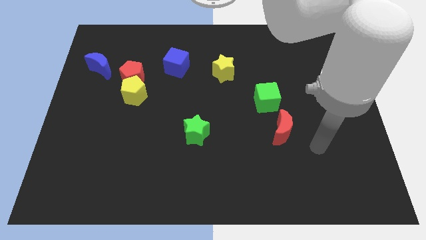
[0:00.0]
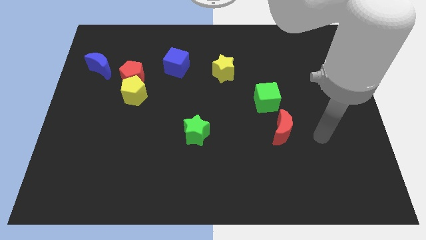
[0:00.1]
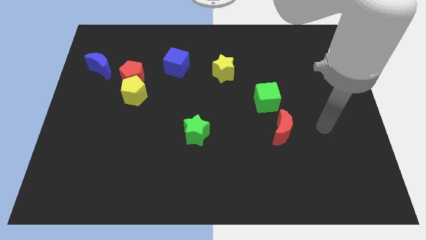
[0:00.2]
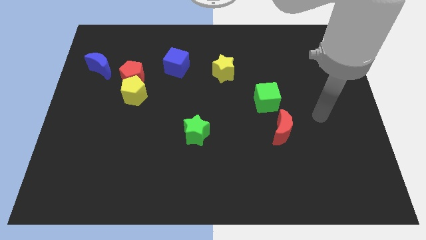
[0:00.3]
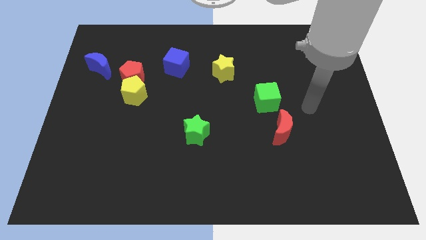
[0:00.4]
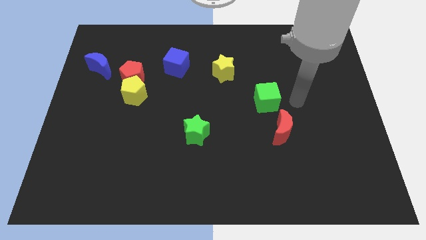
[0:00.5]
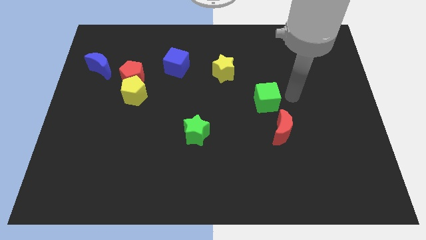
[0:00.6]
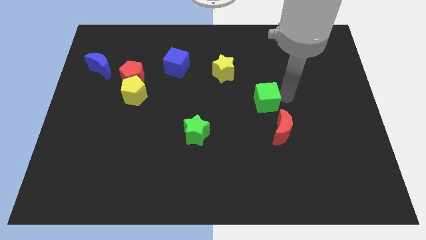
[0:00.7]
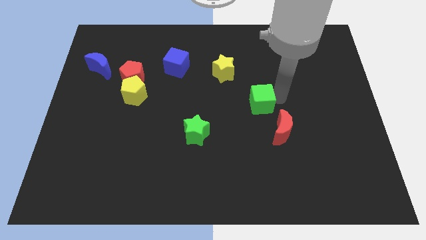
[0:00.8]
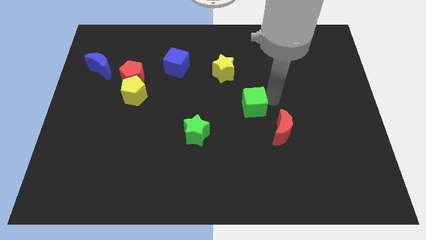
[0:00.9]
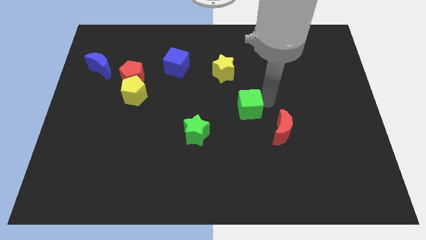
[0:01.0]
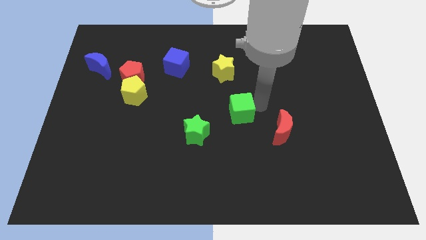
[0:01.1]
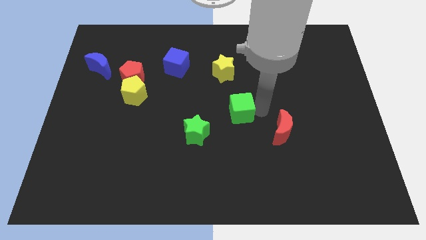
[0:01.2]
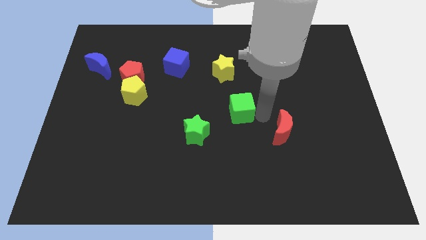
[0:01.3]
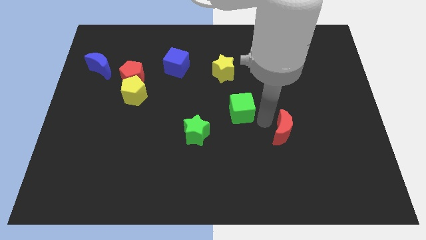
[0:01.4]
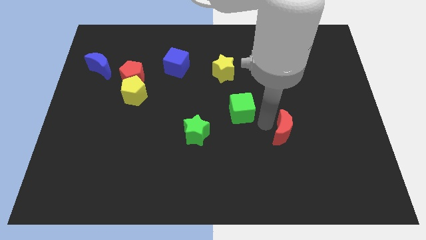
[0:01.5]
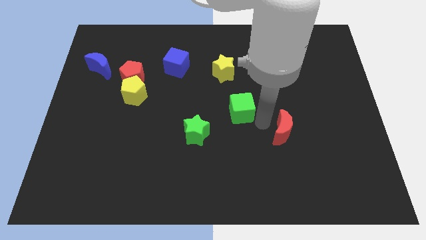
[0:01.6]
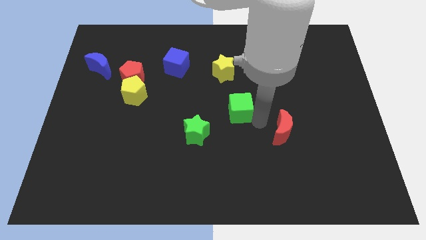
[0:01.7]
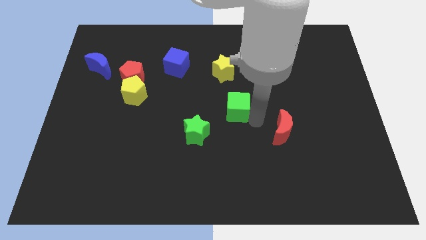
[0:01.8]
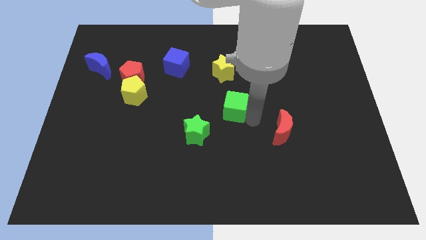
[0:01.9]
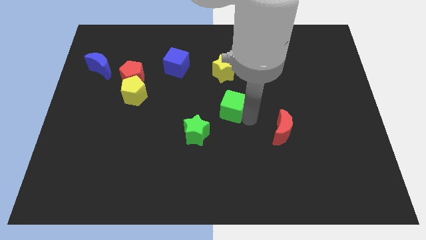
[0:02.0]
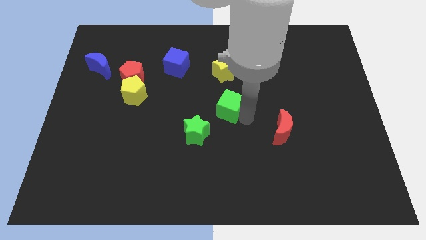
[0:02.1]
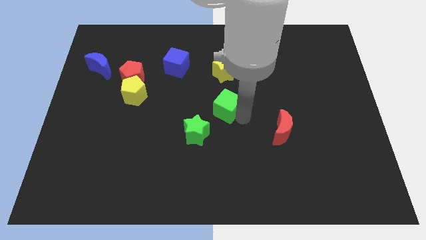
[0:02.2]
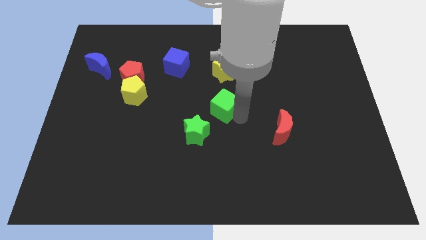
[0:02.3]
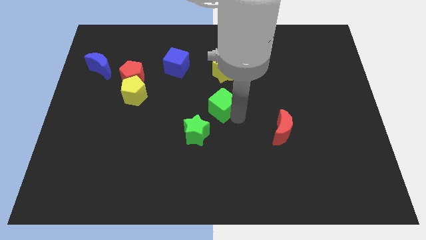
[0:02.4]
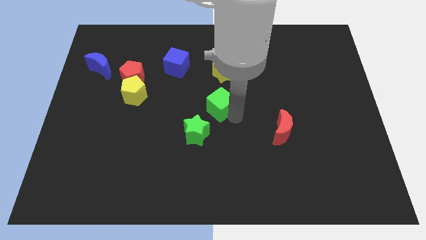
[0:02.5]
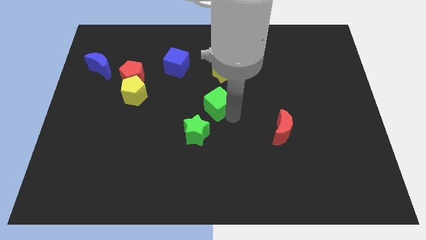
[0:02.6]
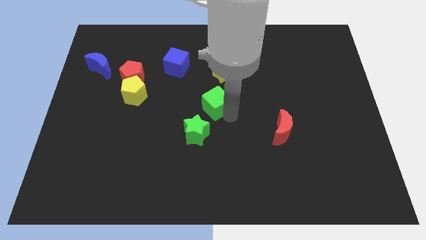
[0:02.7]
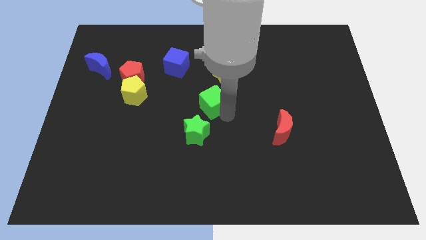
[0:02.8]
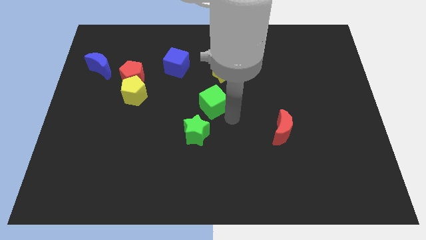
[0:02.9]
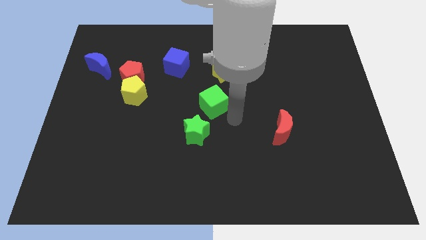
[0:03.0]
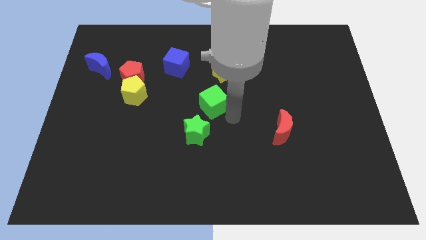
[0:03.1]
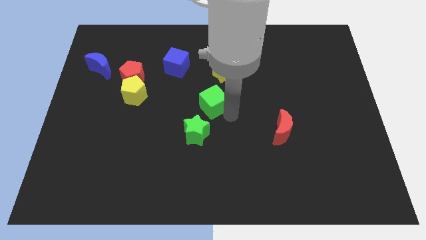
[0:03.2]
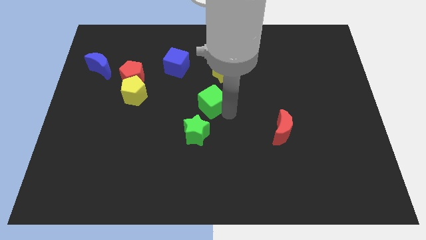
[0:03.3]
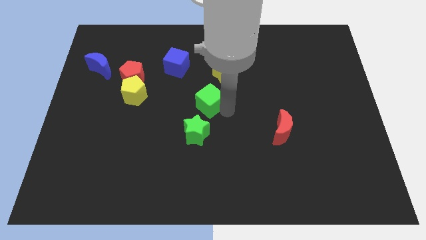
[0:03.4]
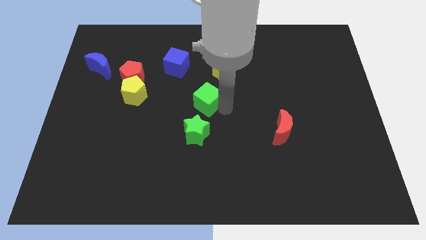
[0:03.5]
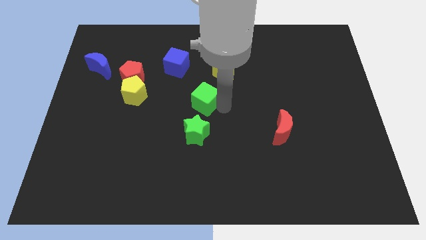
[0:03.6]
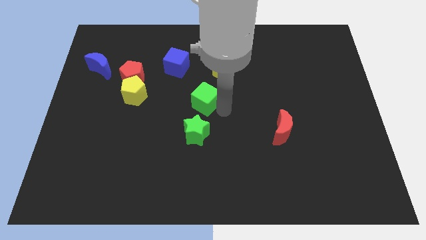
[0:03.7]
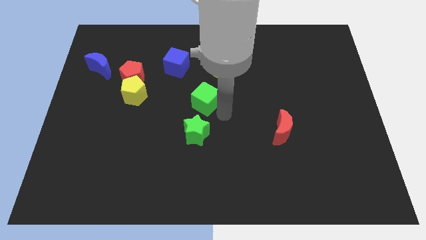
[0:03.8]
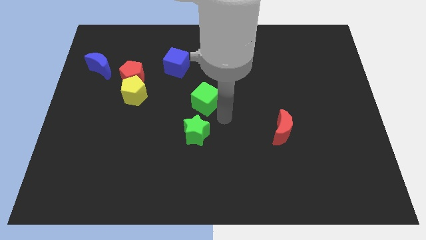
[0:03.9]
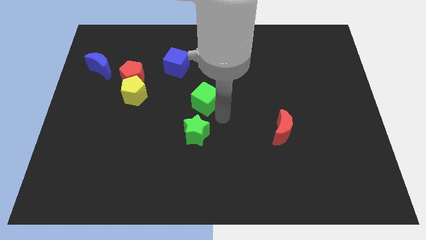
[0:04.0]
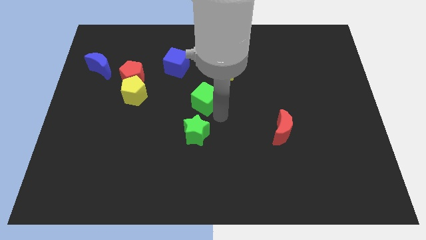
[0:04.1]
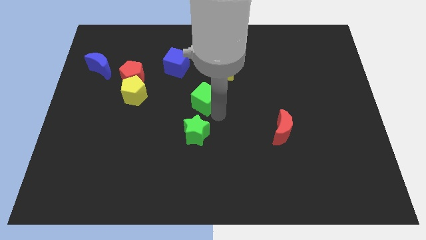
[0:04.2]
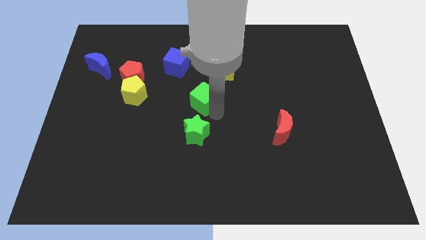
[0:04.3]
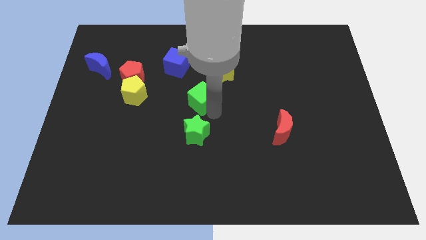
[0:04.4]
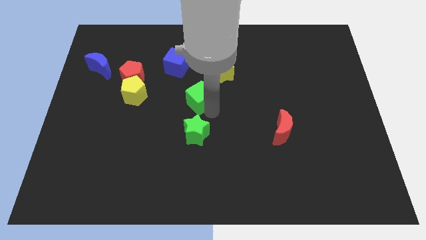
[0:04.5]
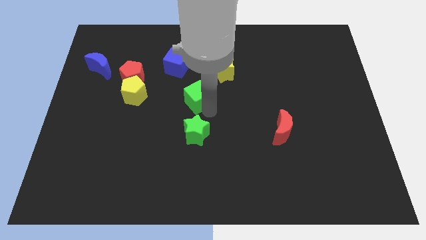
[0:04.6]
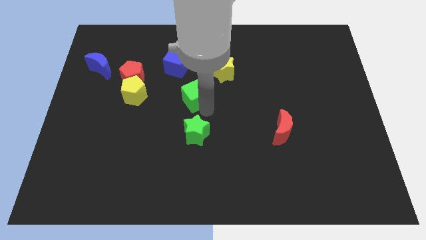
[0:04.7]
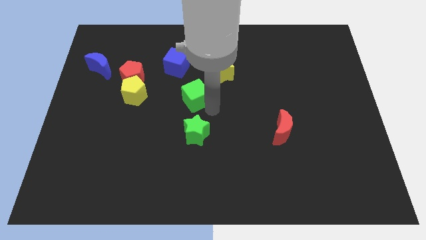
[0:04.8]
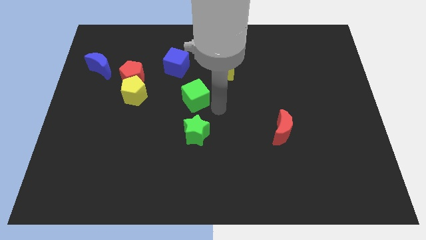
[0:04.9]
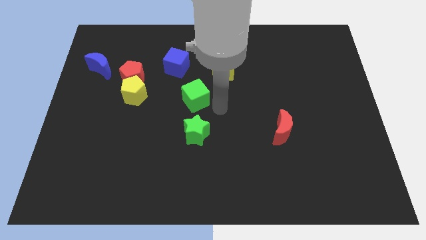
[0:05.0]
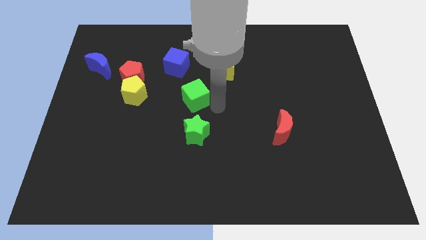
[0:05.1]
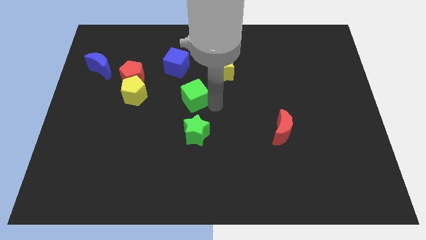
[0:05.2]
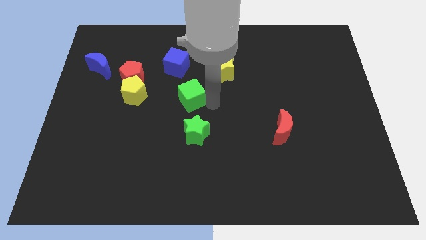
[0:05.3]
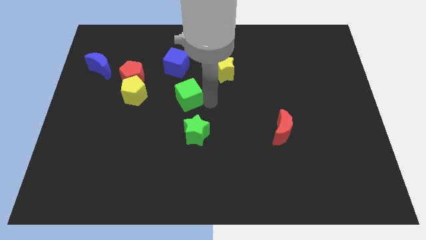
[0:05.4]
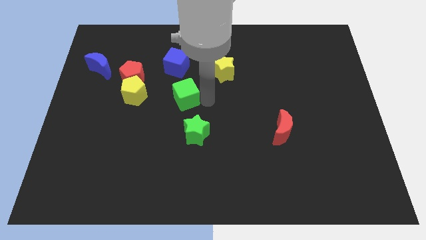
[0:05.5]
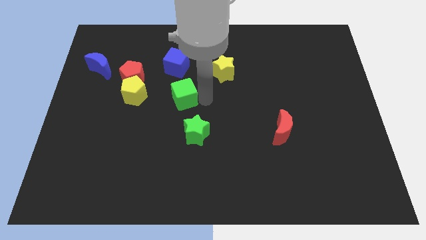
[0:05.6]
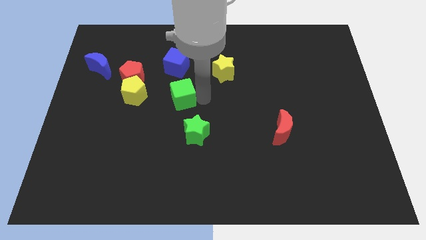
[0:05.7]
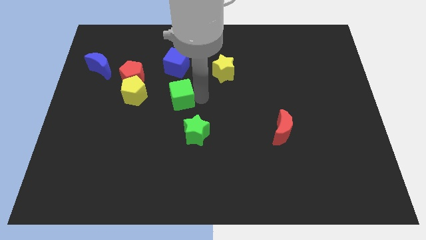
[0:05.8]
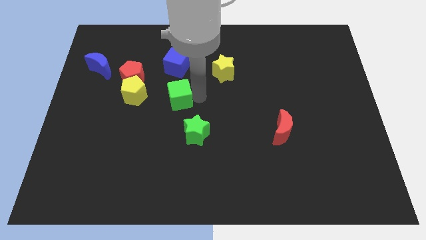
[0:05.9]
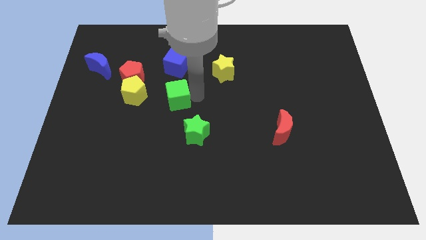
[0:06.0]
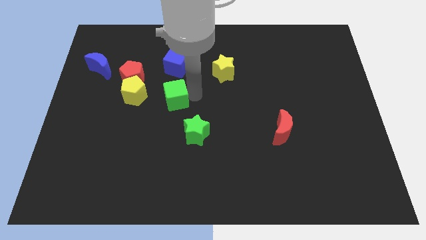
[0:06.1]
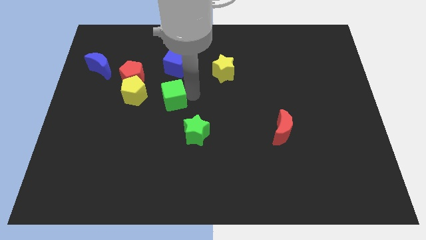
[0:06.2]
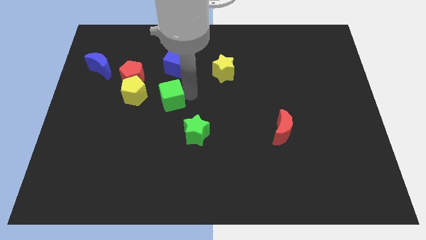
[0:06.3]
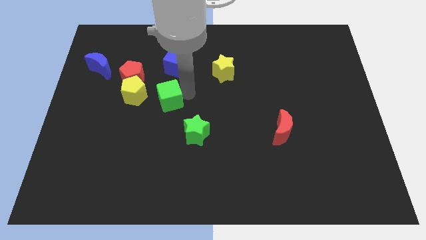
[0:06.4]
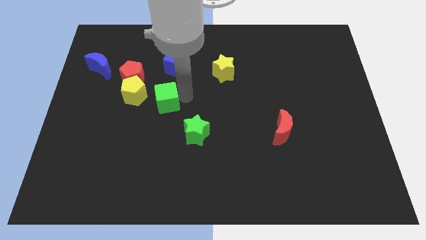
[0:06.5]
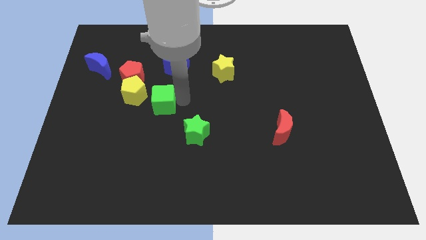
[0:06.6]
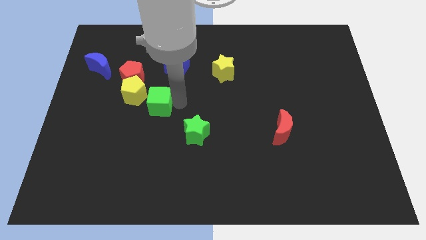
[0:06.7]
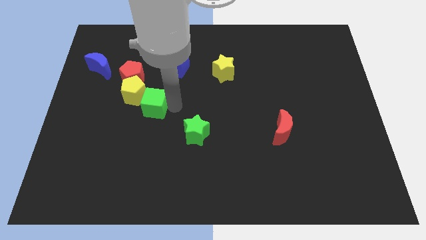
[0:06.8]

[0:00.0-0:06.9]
push the green cube close to the yellow pentagon

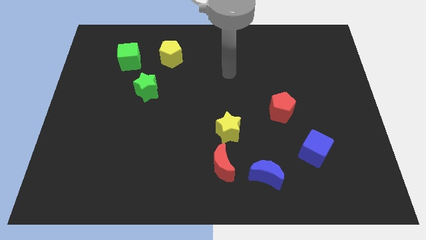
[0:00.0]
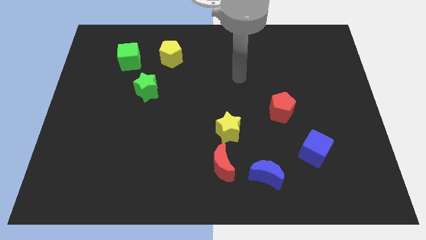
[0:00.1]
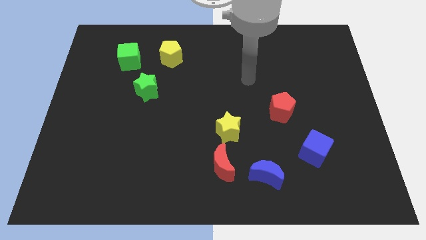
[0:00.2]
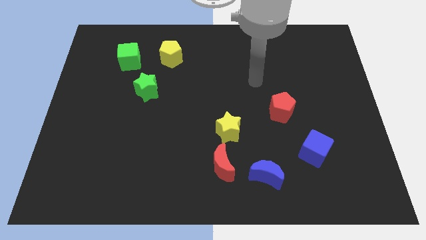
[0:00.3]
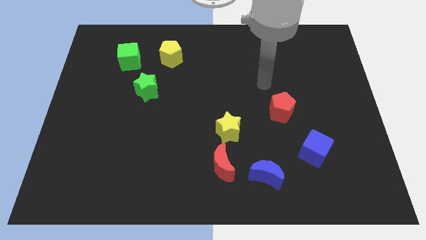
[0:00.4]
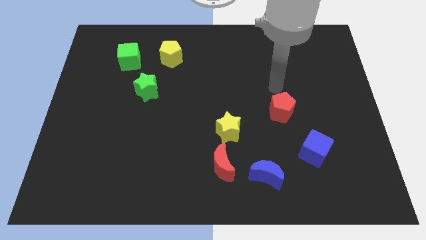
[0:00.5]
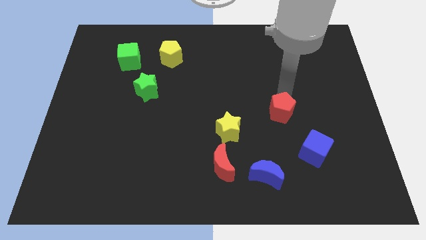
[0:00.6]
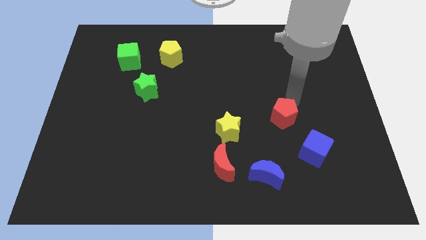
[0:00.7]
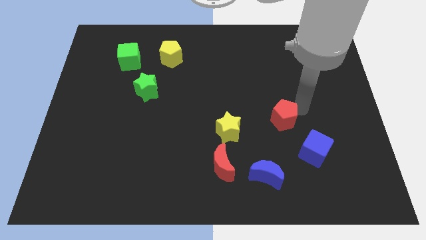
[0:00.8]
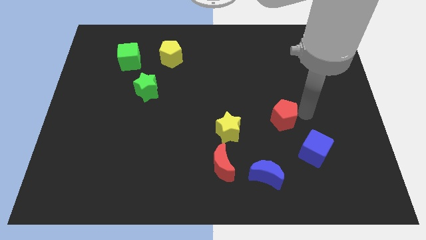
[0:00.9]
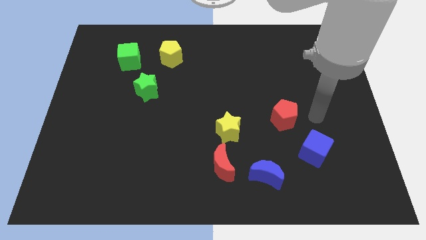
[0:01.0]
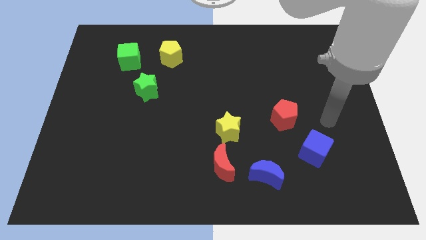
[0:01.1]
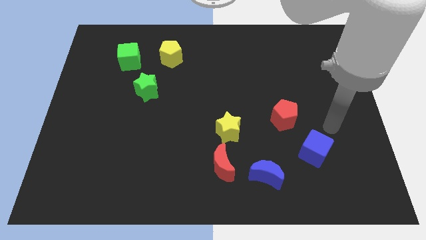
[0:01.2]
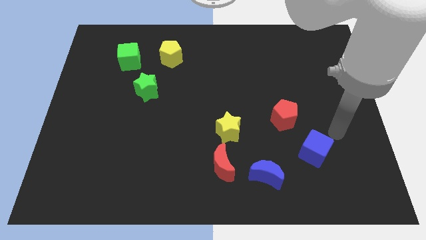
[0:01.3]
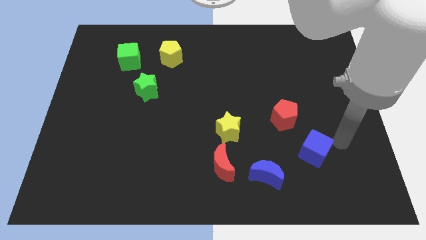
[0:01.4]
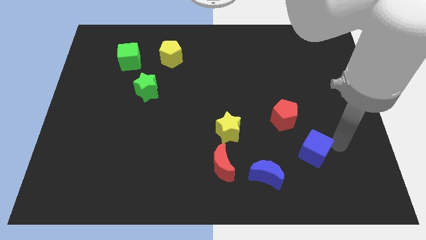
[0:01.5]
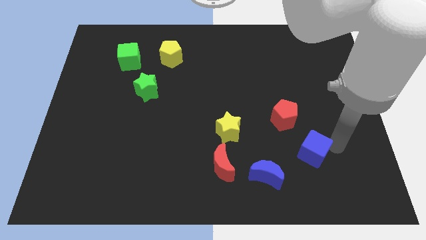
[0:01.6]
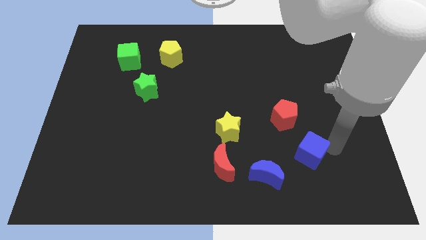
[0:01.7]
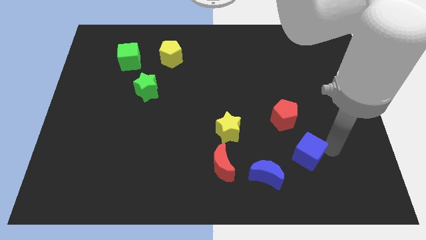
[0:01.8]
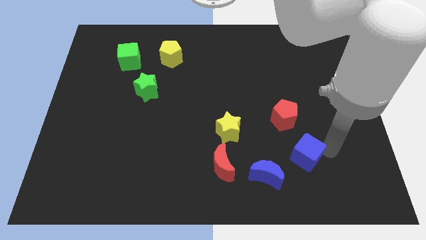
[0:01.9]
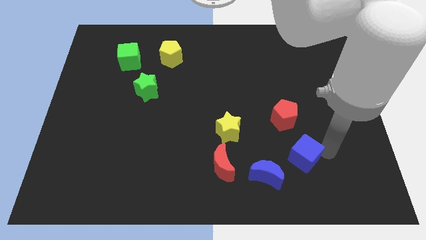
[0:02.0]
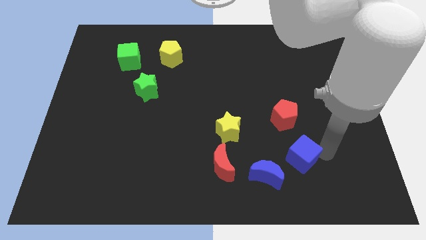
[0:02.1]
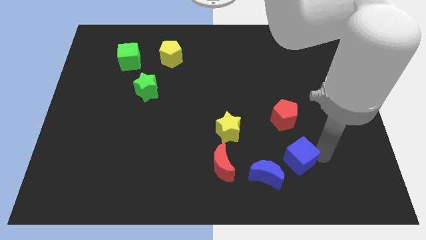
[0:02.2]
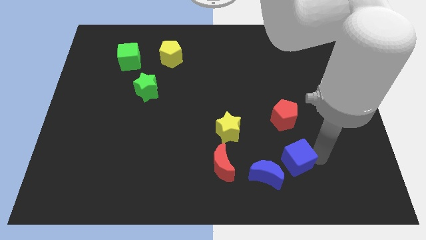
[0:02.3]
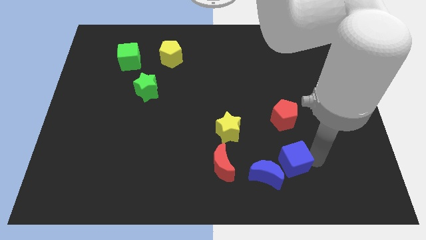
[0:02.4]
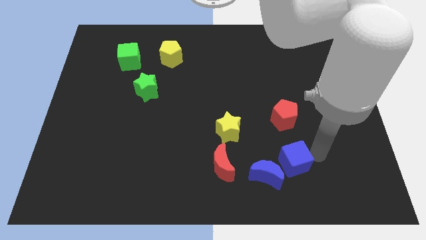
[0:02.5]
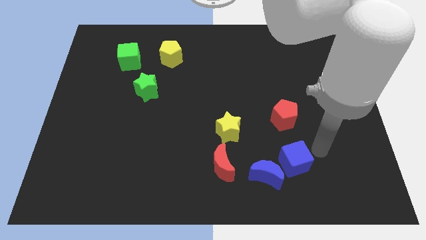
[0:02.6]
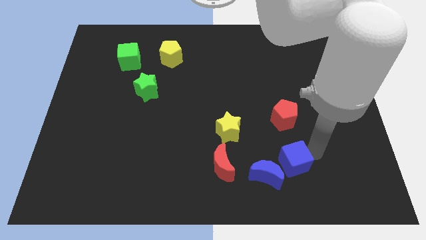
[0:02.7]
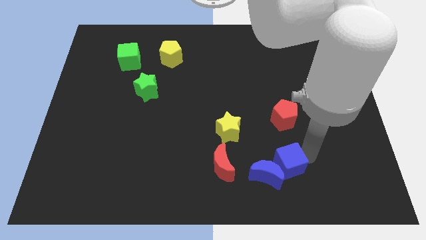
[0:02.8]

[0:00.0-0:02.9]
put the blue cube next to the blue moon
